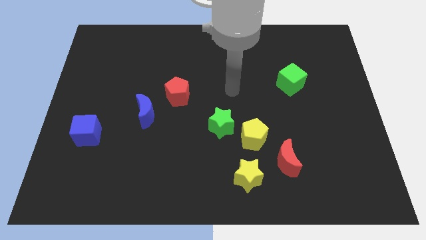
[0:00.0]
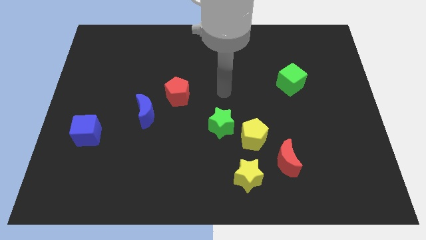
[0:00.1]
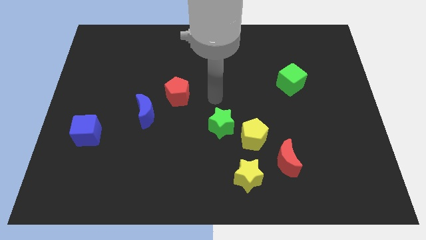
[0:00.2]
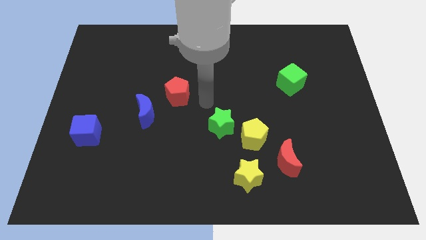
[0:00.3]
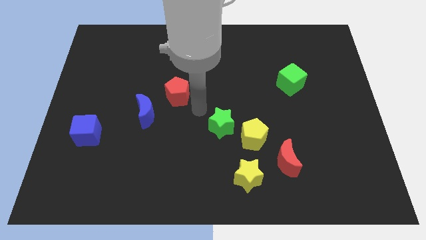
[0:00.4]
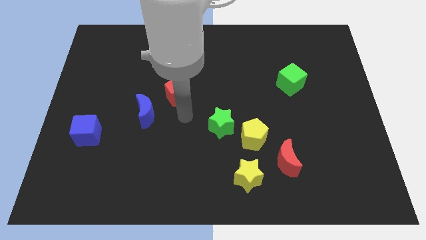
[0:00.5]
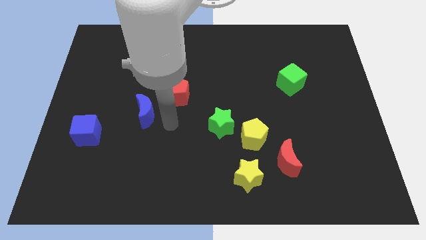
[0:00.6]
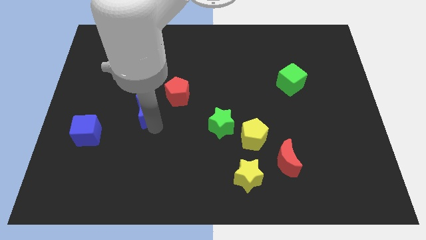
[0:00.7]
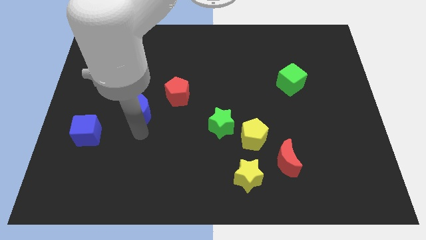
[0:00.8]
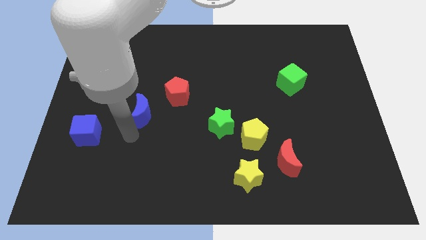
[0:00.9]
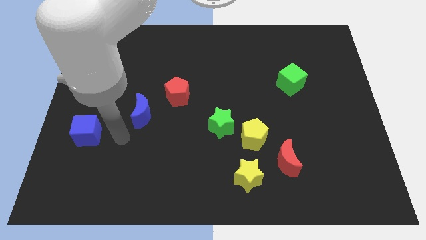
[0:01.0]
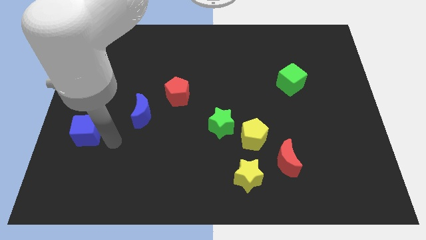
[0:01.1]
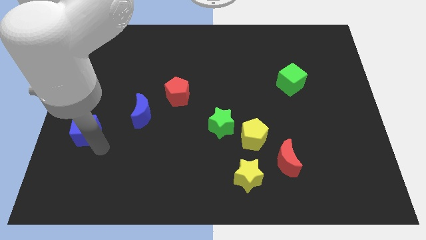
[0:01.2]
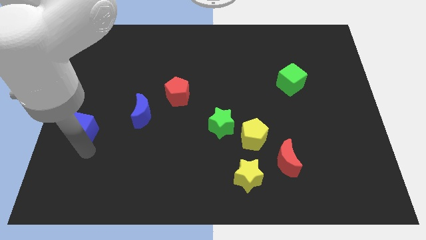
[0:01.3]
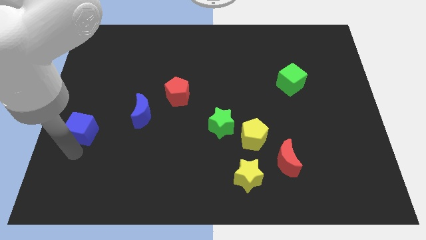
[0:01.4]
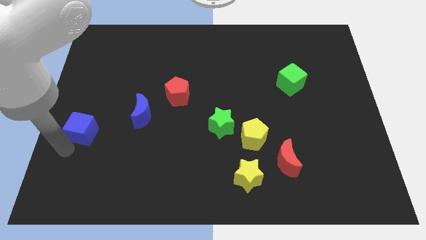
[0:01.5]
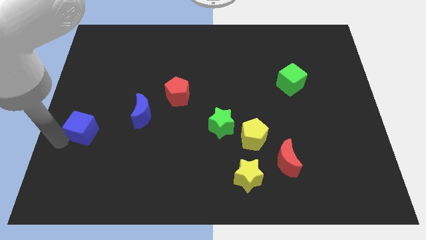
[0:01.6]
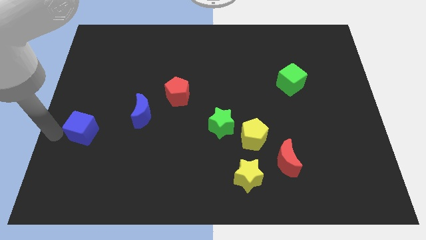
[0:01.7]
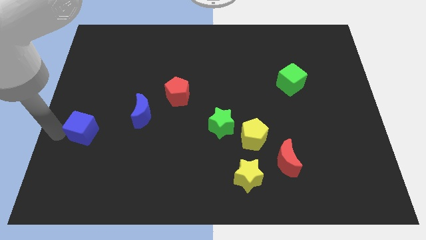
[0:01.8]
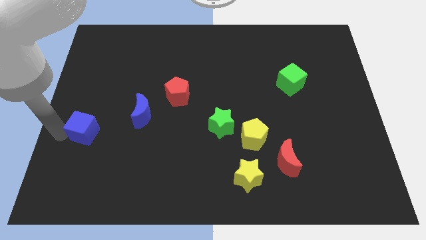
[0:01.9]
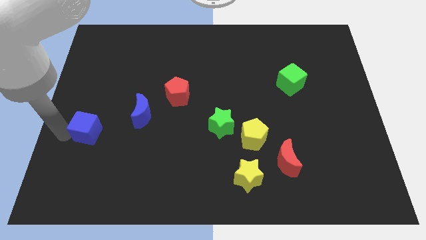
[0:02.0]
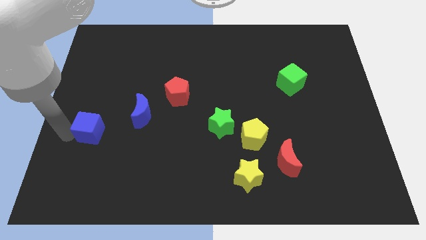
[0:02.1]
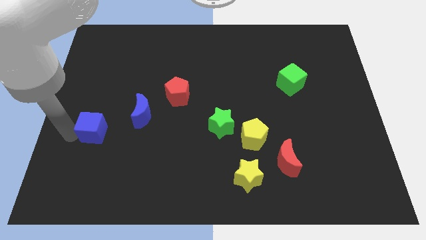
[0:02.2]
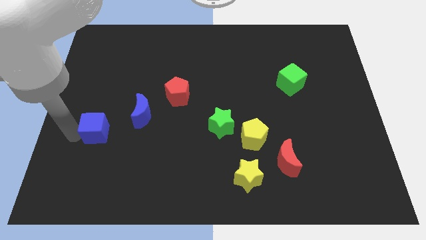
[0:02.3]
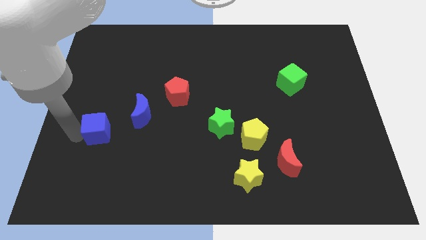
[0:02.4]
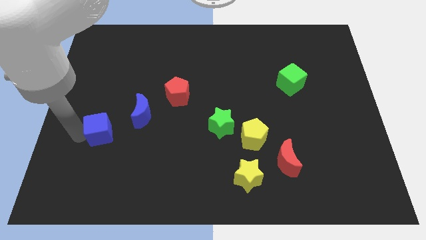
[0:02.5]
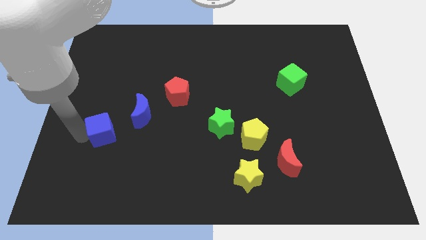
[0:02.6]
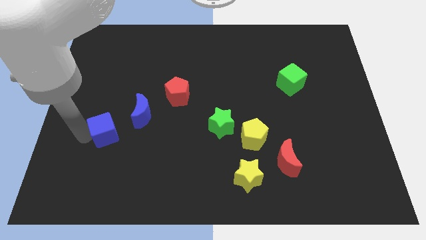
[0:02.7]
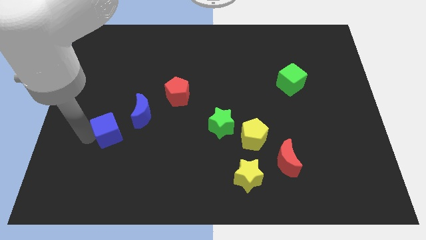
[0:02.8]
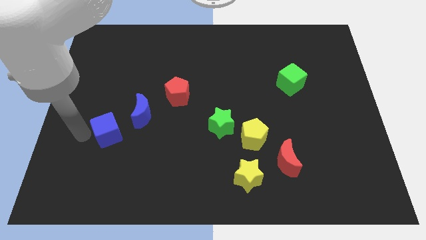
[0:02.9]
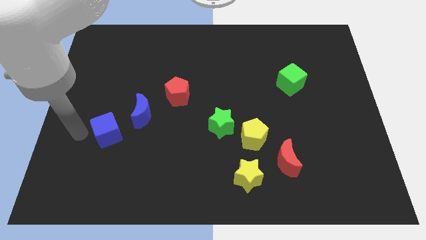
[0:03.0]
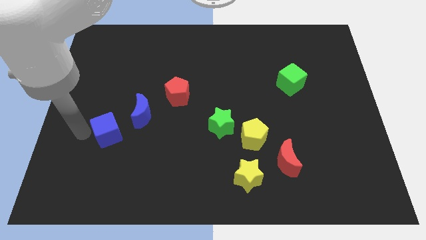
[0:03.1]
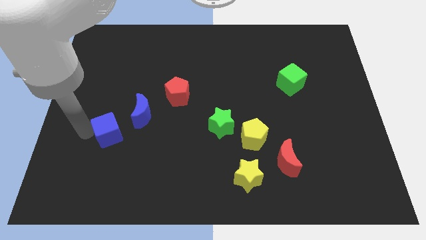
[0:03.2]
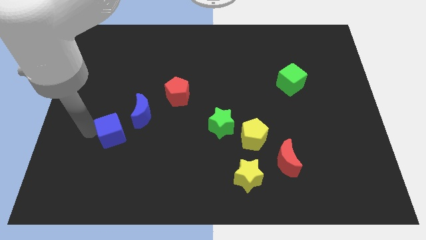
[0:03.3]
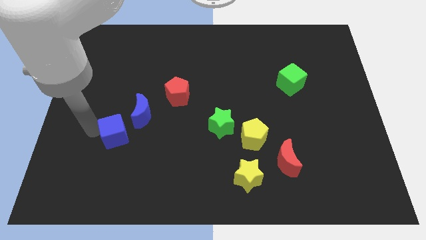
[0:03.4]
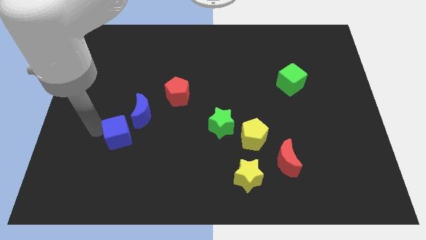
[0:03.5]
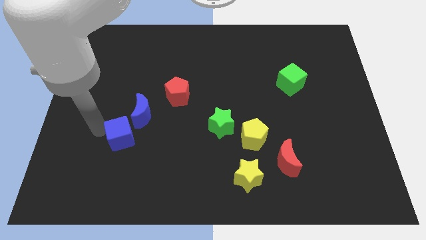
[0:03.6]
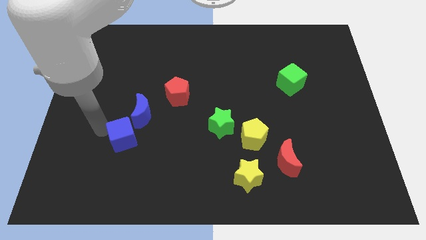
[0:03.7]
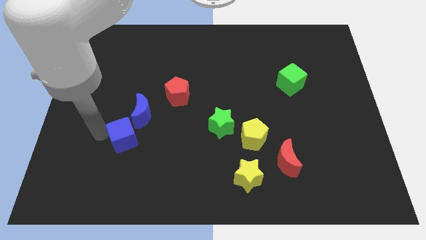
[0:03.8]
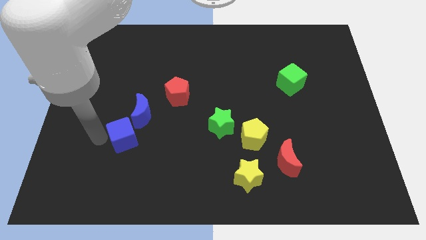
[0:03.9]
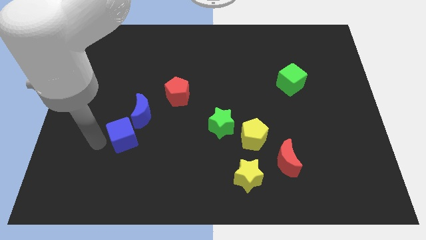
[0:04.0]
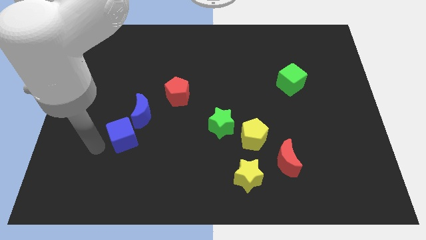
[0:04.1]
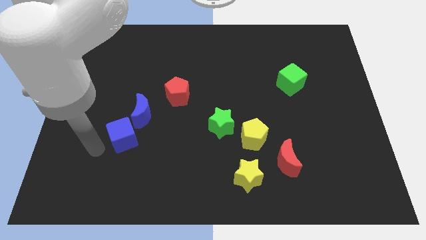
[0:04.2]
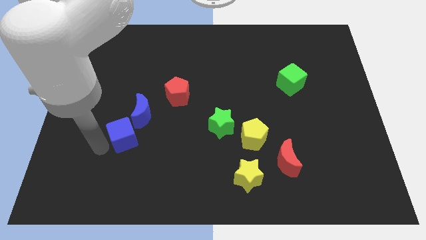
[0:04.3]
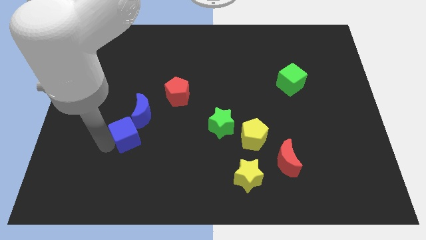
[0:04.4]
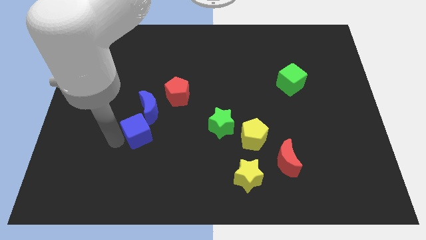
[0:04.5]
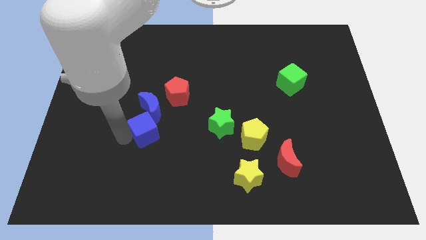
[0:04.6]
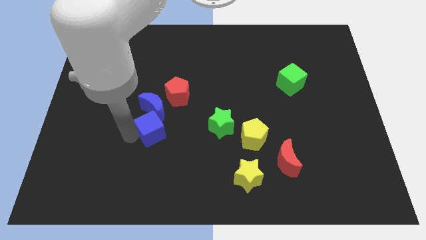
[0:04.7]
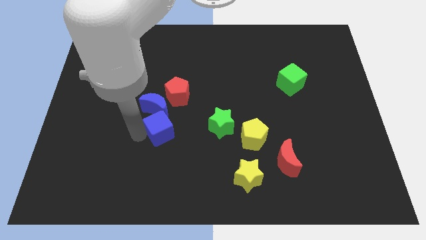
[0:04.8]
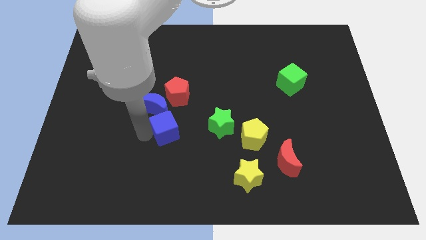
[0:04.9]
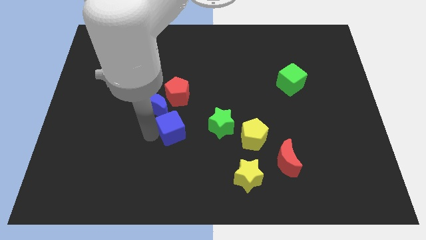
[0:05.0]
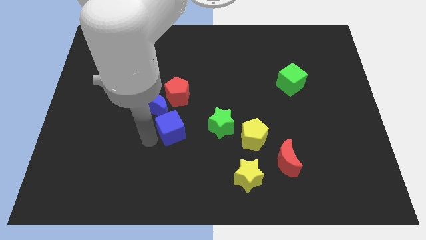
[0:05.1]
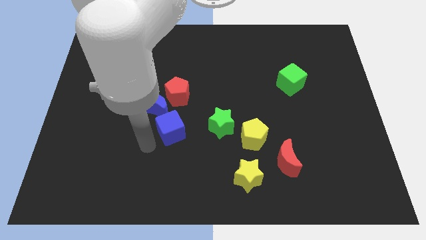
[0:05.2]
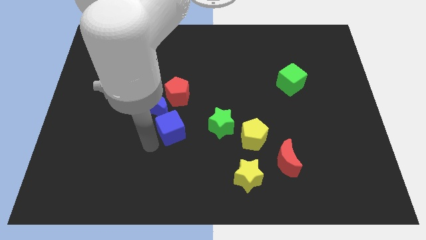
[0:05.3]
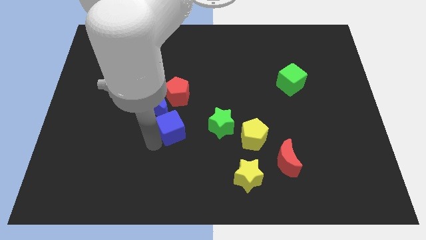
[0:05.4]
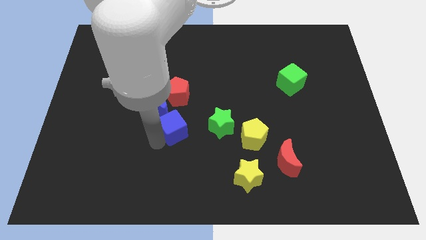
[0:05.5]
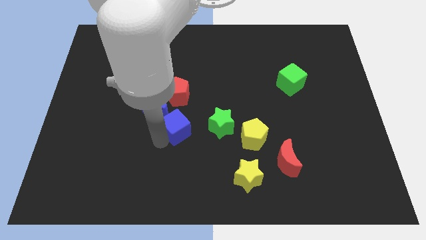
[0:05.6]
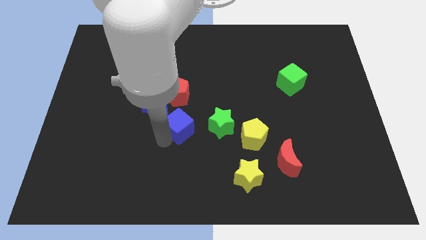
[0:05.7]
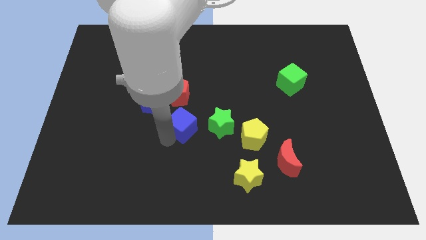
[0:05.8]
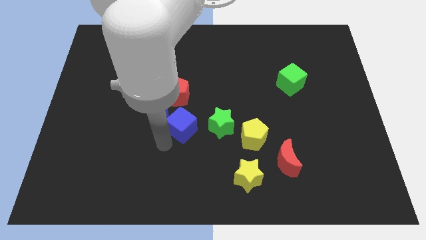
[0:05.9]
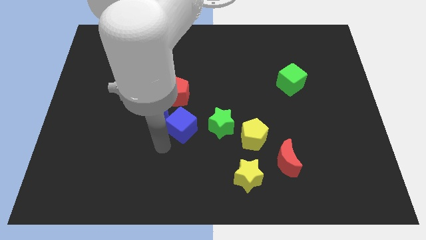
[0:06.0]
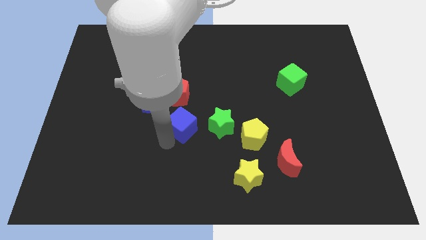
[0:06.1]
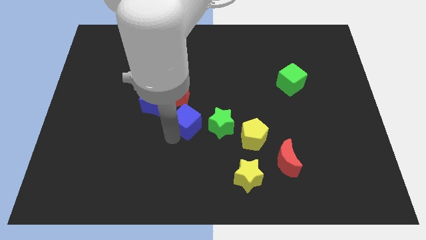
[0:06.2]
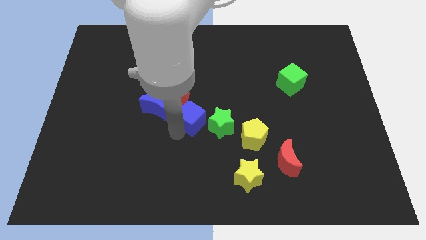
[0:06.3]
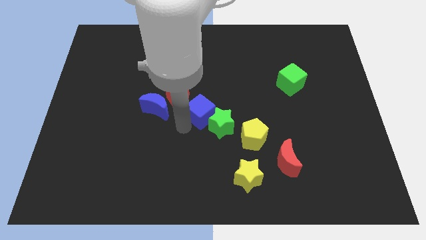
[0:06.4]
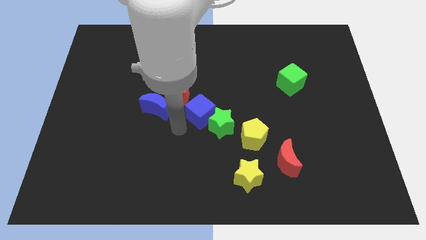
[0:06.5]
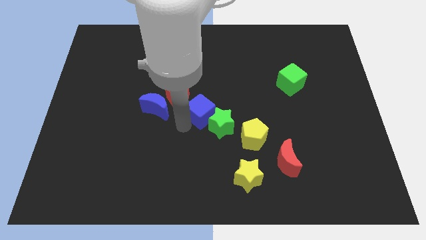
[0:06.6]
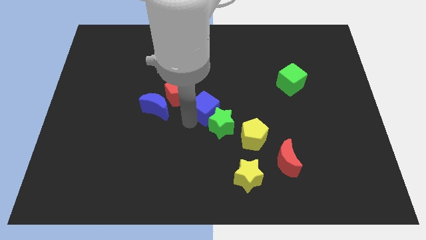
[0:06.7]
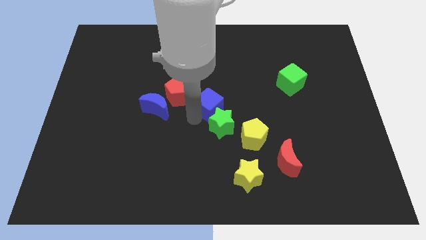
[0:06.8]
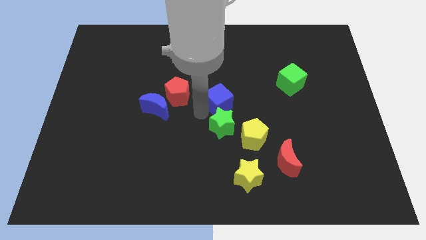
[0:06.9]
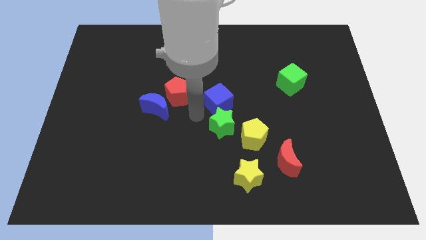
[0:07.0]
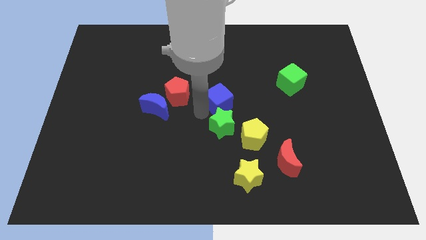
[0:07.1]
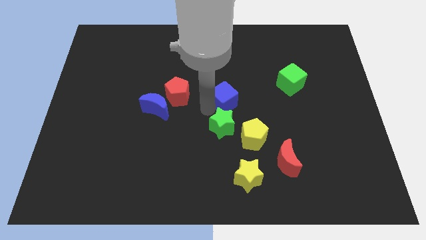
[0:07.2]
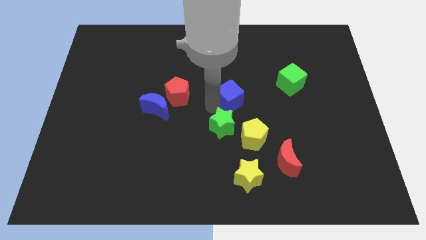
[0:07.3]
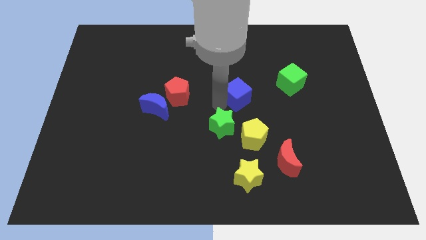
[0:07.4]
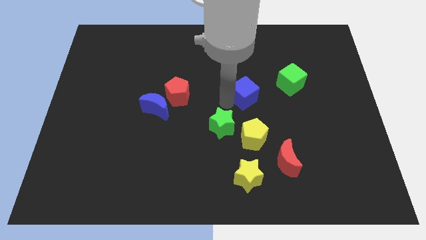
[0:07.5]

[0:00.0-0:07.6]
slide the blue cube to the left of the green cube
